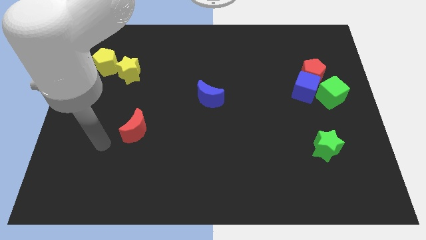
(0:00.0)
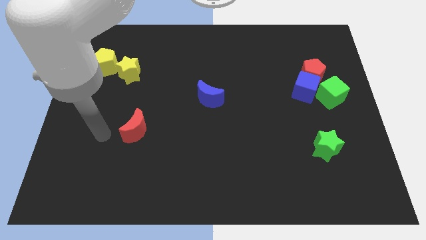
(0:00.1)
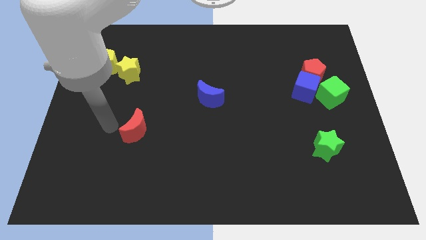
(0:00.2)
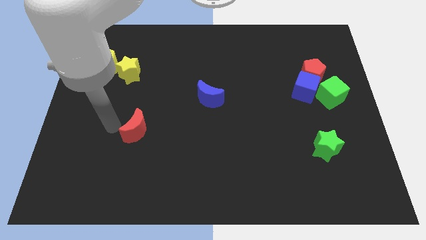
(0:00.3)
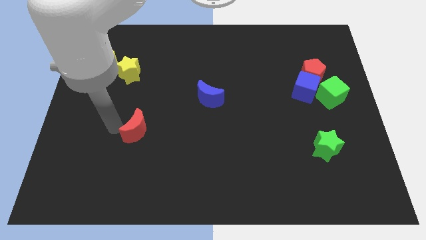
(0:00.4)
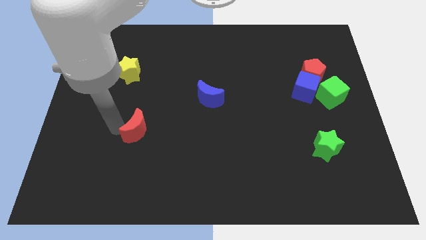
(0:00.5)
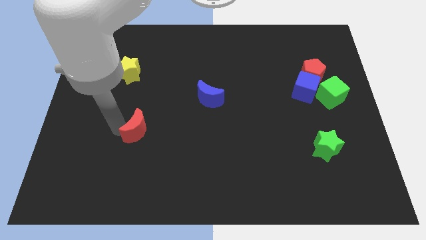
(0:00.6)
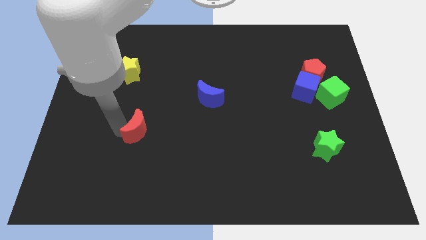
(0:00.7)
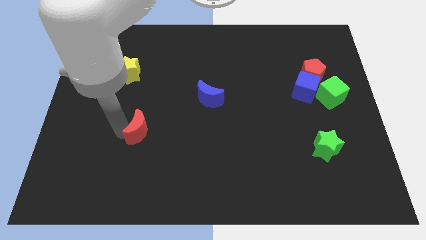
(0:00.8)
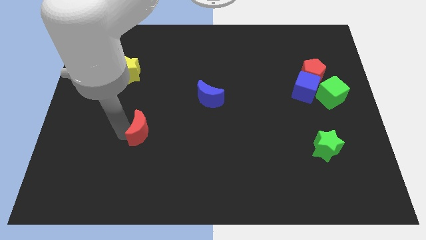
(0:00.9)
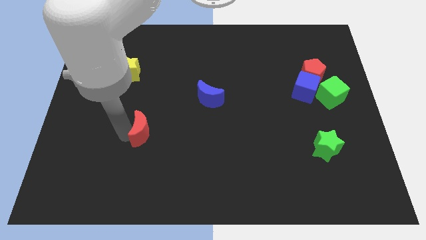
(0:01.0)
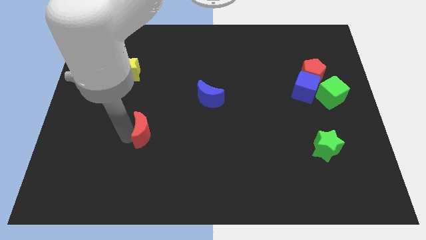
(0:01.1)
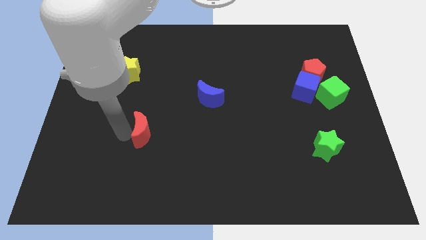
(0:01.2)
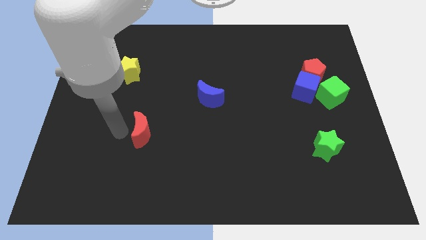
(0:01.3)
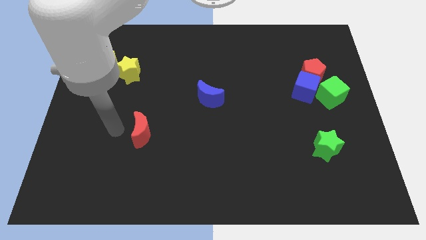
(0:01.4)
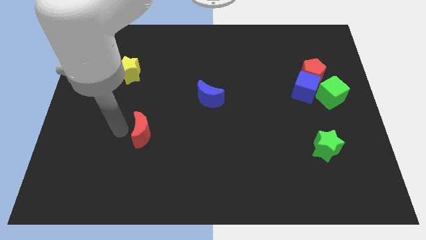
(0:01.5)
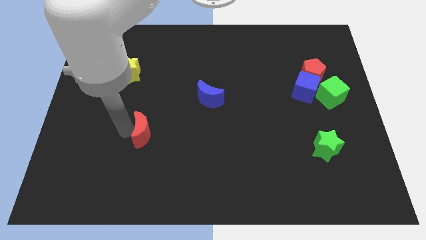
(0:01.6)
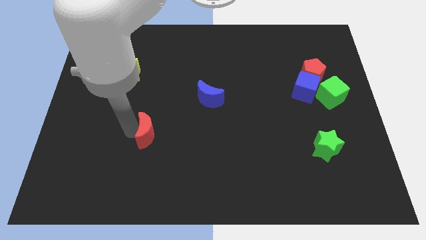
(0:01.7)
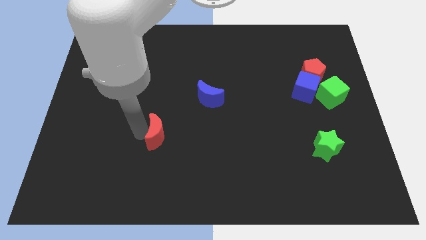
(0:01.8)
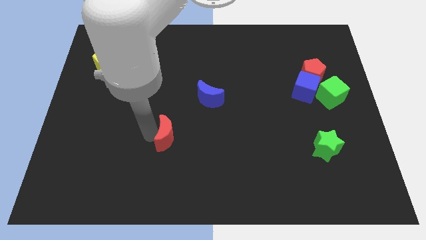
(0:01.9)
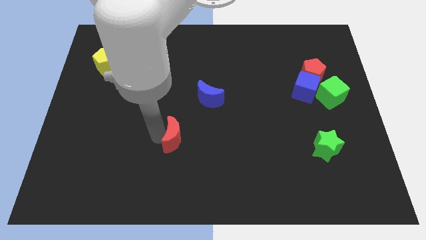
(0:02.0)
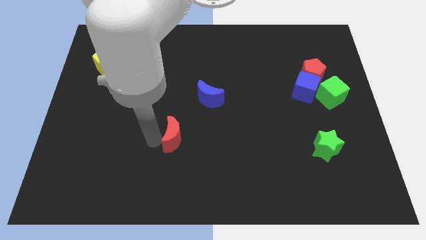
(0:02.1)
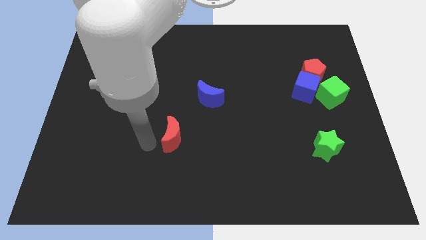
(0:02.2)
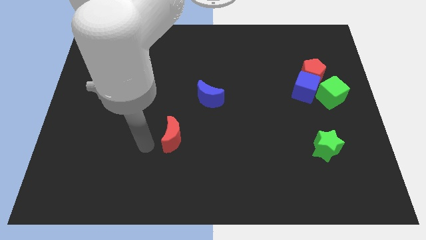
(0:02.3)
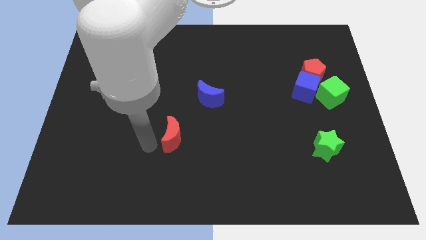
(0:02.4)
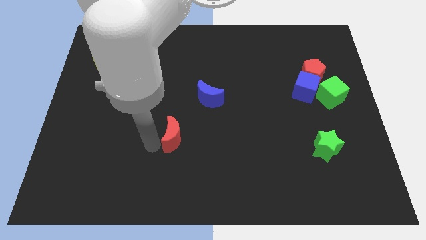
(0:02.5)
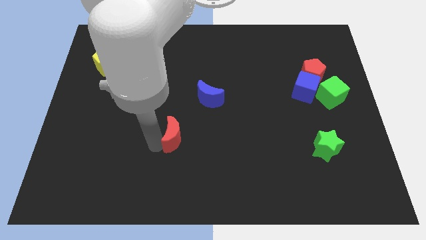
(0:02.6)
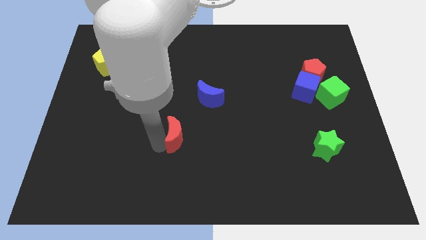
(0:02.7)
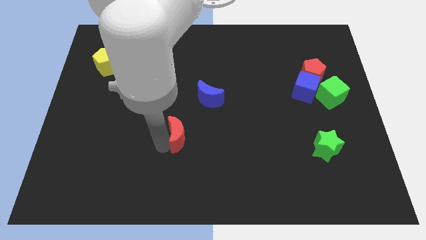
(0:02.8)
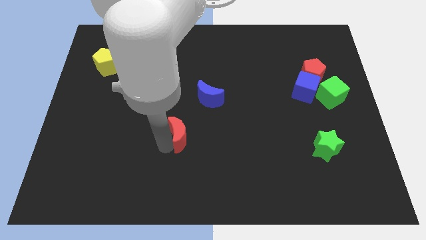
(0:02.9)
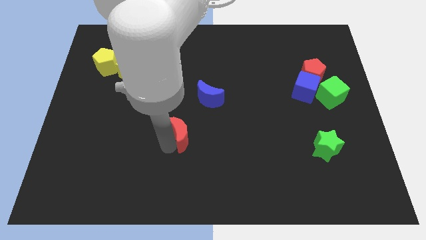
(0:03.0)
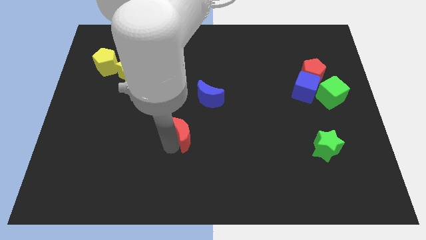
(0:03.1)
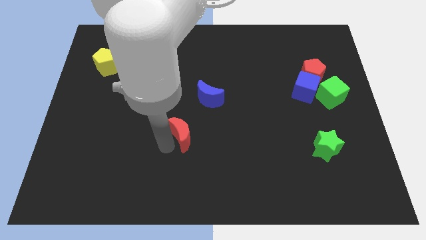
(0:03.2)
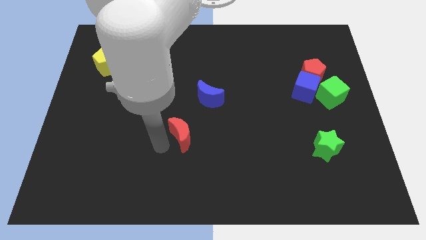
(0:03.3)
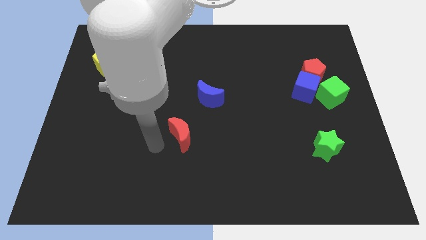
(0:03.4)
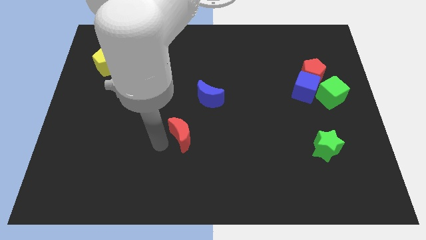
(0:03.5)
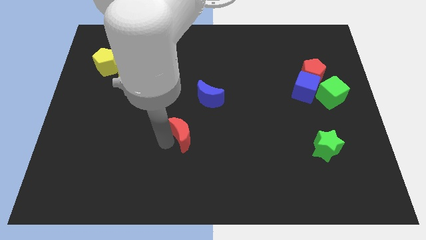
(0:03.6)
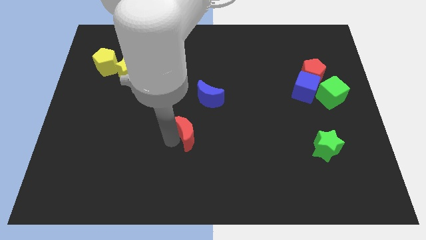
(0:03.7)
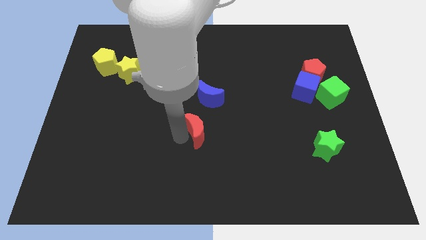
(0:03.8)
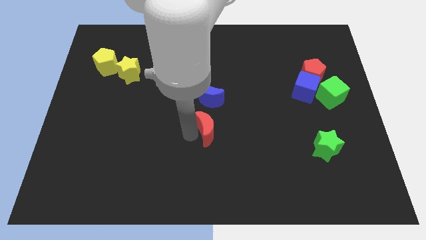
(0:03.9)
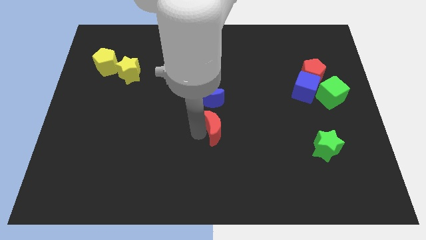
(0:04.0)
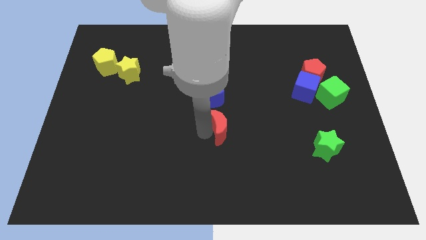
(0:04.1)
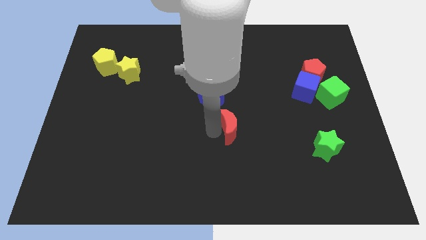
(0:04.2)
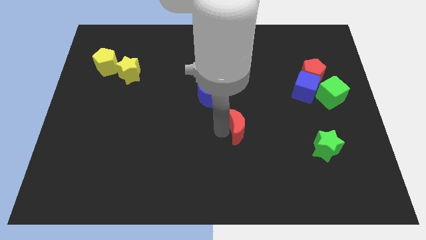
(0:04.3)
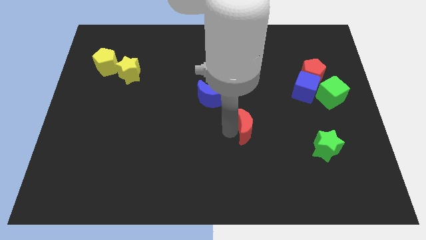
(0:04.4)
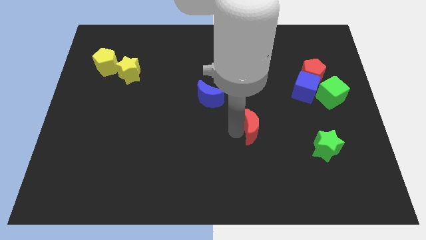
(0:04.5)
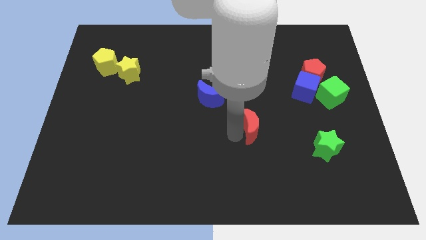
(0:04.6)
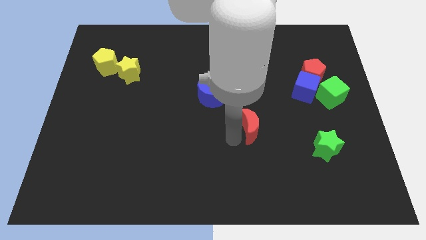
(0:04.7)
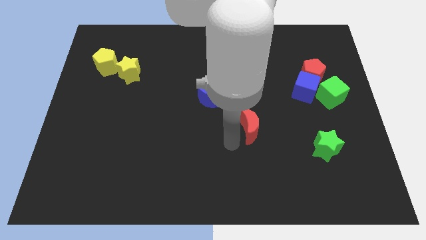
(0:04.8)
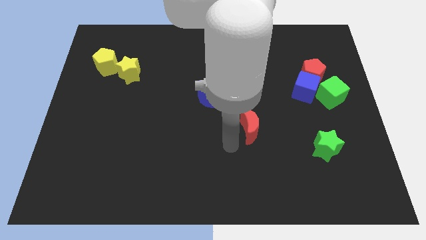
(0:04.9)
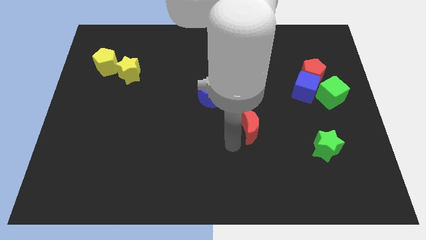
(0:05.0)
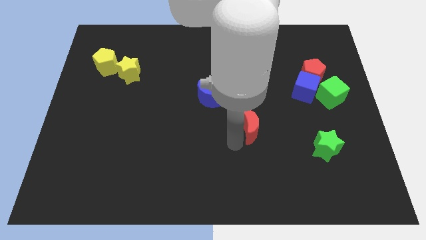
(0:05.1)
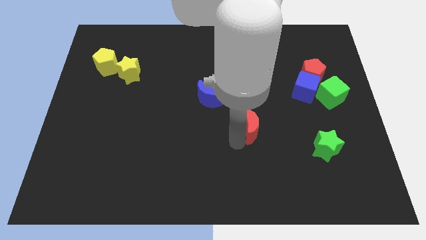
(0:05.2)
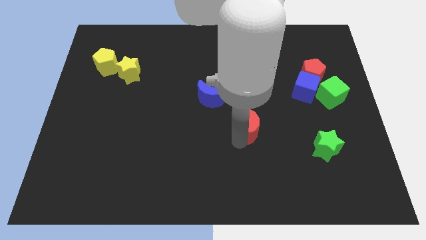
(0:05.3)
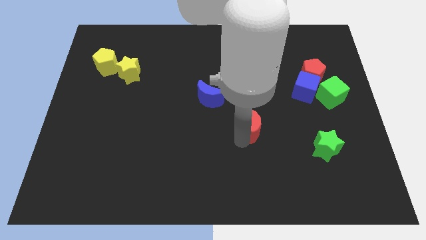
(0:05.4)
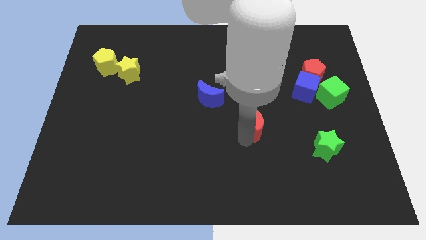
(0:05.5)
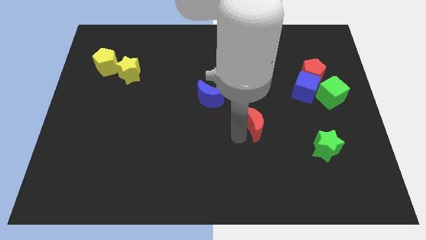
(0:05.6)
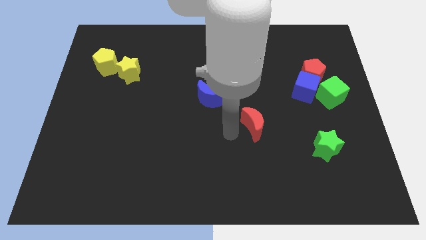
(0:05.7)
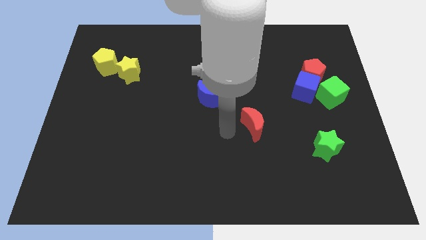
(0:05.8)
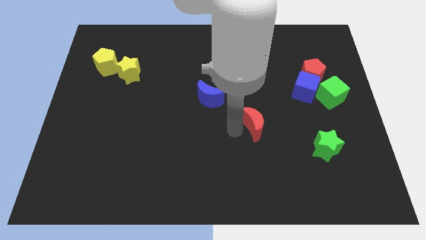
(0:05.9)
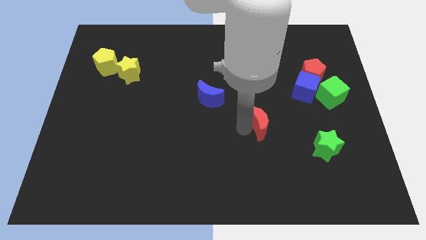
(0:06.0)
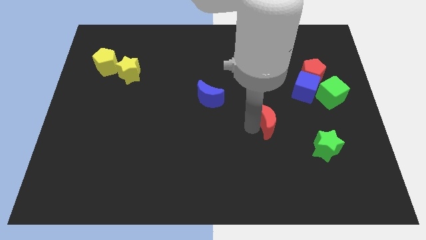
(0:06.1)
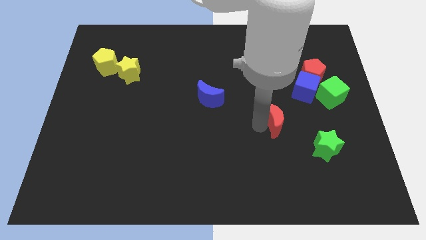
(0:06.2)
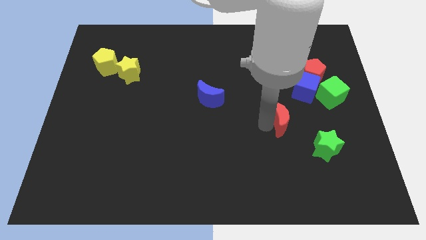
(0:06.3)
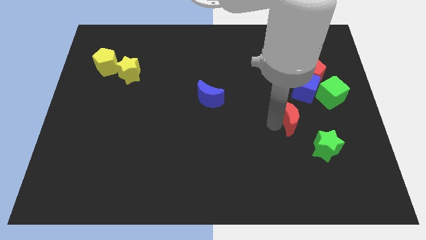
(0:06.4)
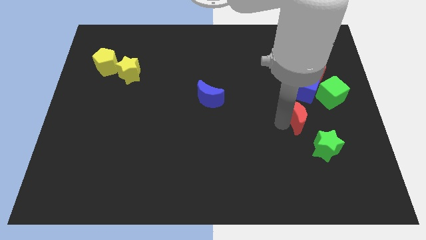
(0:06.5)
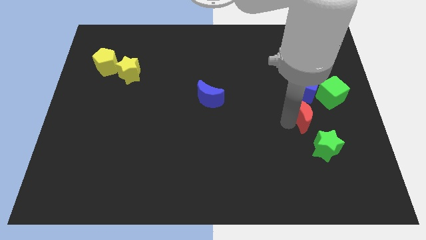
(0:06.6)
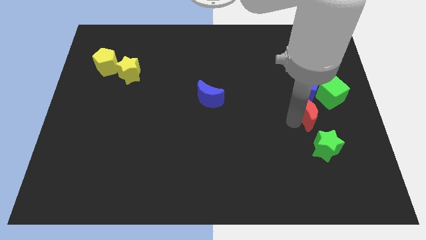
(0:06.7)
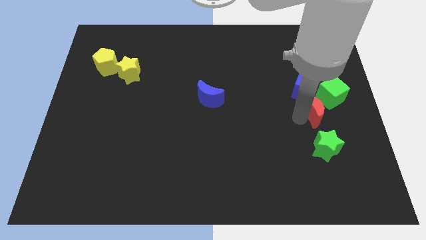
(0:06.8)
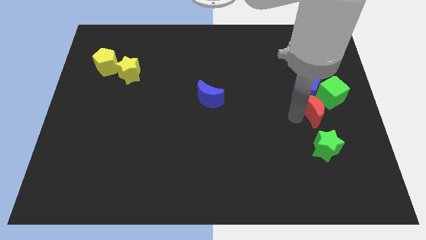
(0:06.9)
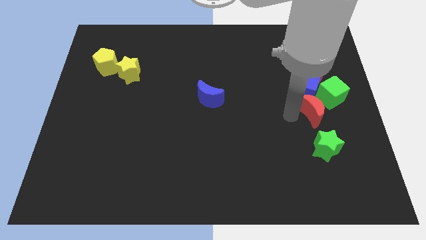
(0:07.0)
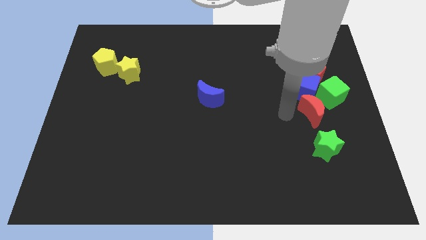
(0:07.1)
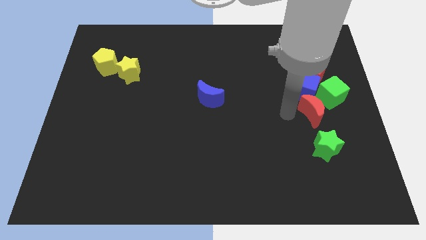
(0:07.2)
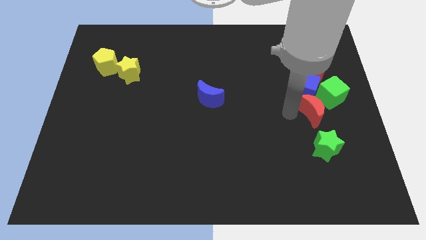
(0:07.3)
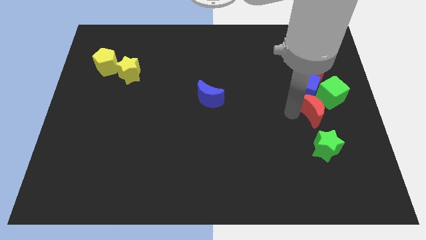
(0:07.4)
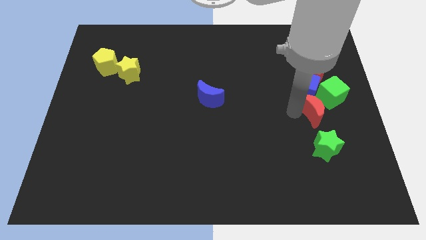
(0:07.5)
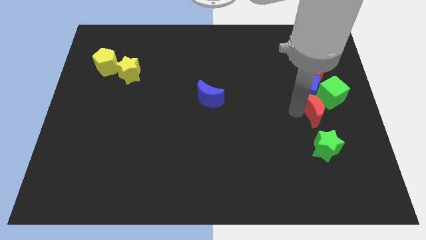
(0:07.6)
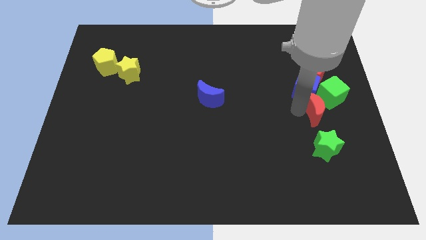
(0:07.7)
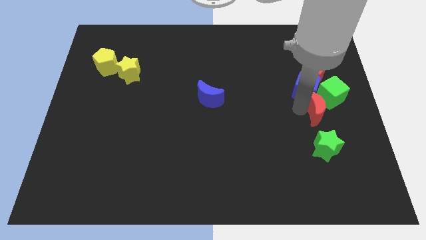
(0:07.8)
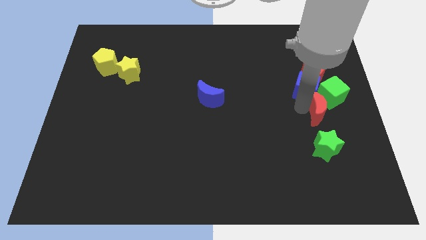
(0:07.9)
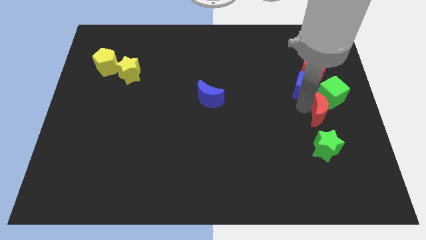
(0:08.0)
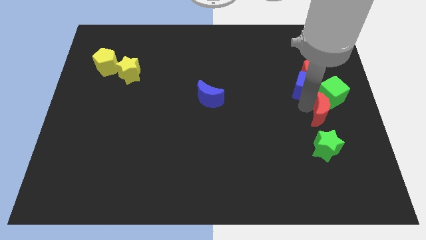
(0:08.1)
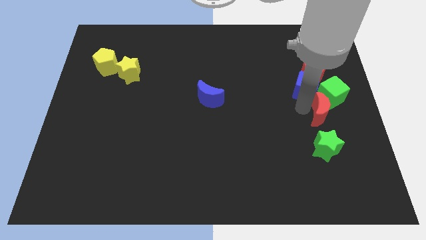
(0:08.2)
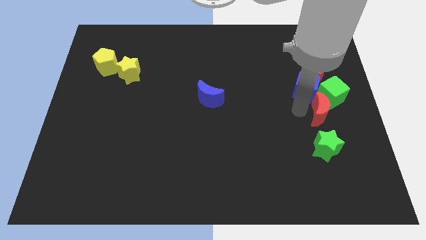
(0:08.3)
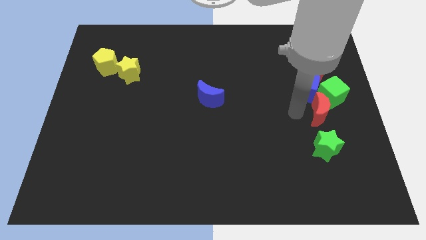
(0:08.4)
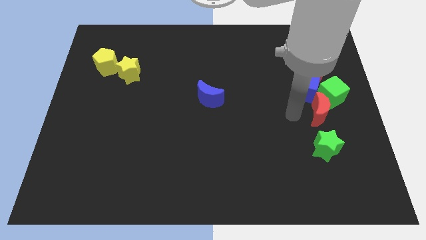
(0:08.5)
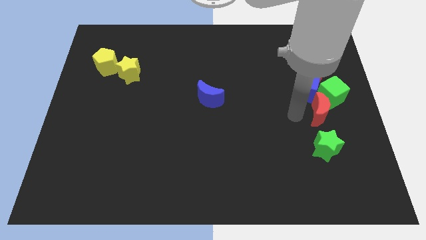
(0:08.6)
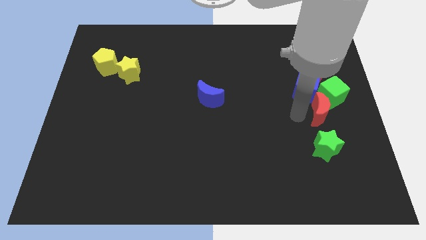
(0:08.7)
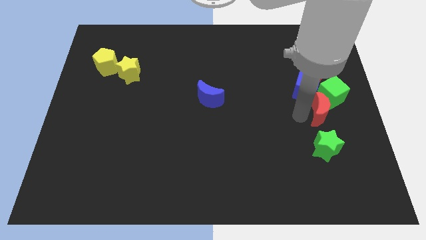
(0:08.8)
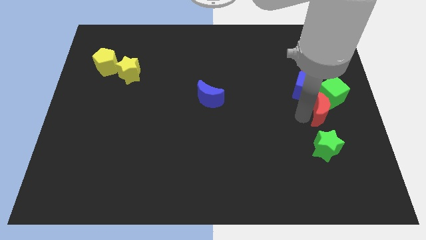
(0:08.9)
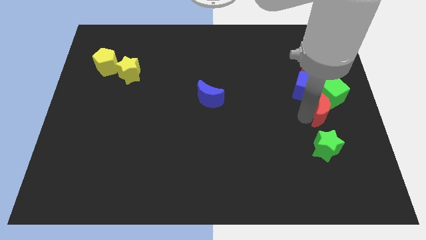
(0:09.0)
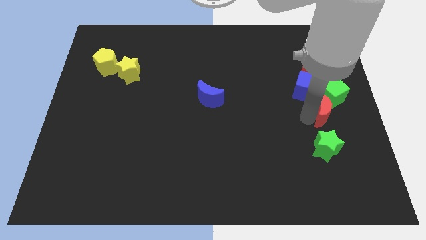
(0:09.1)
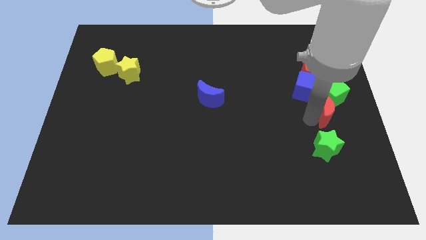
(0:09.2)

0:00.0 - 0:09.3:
put the red moon to the right side of the board
